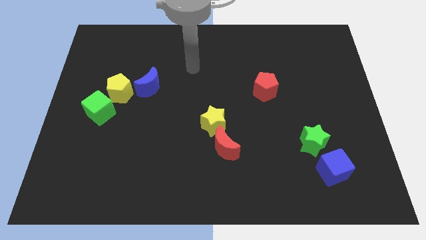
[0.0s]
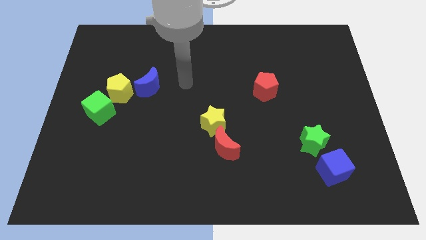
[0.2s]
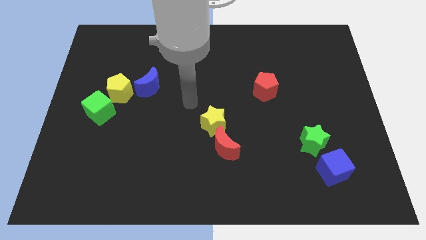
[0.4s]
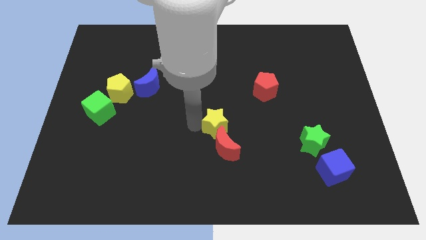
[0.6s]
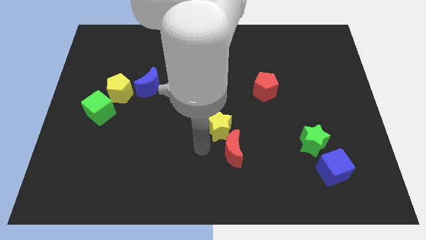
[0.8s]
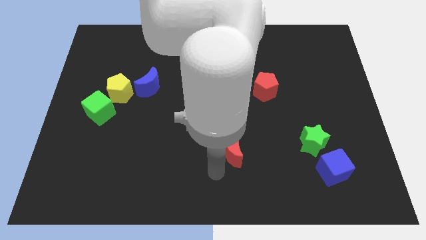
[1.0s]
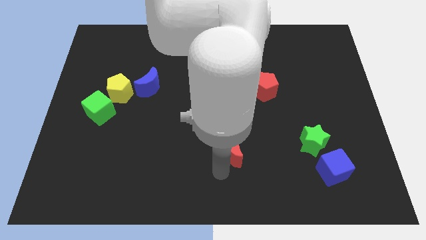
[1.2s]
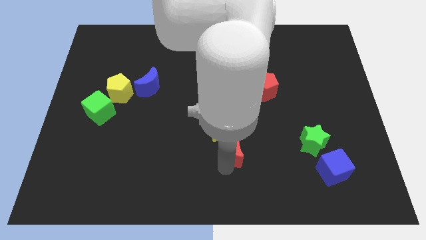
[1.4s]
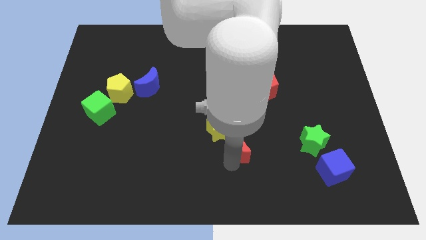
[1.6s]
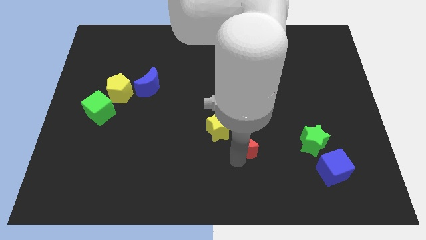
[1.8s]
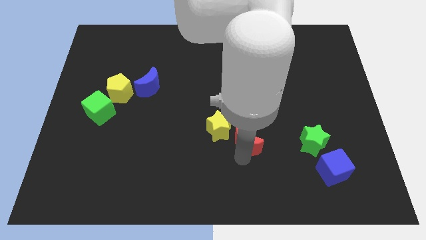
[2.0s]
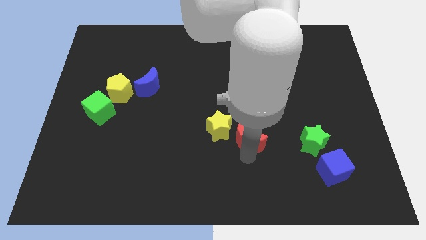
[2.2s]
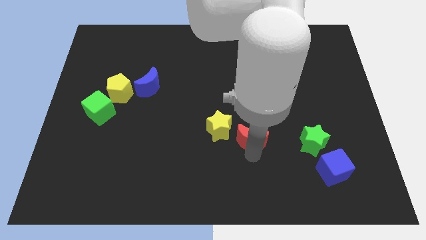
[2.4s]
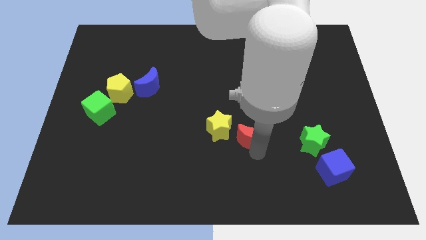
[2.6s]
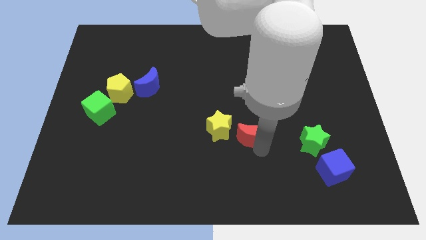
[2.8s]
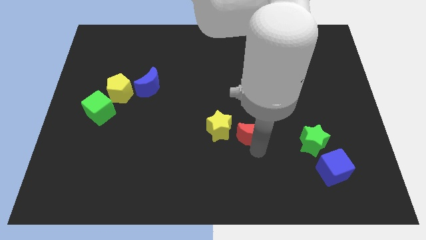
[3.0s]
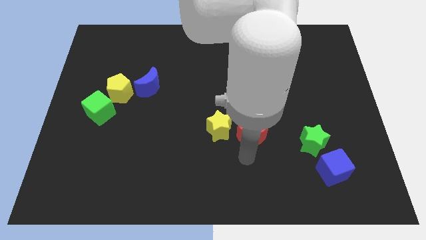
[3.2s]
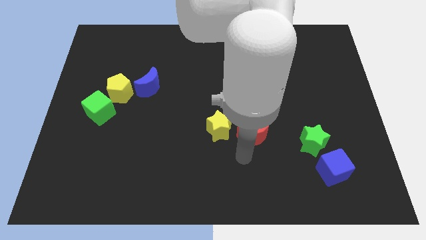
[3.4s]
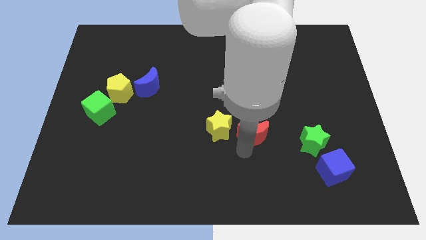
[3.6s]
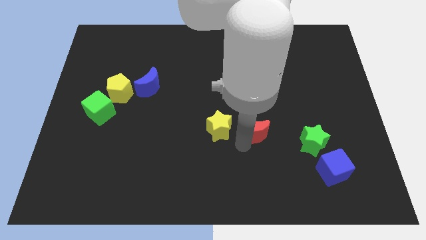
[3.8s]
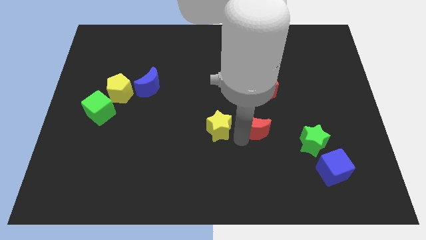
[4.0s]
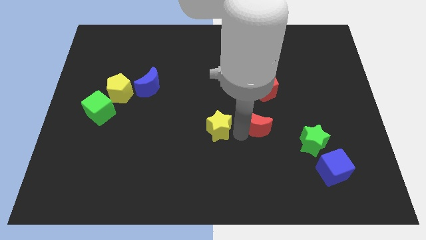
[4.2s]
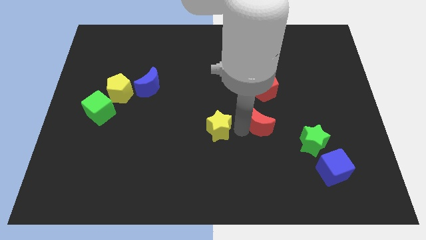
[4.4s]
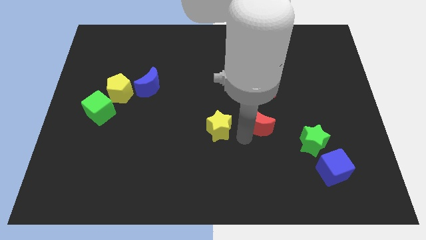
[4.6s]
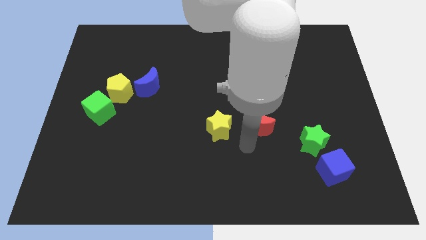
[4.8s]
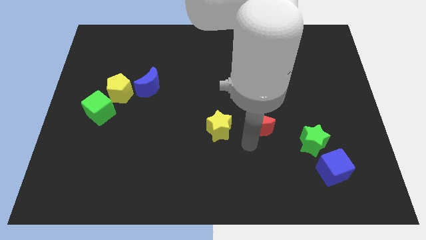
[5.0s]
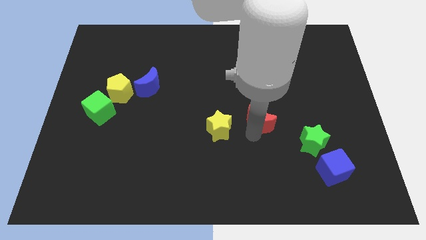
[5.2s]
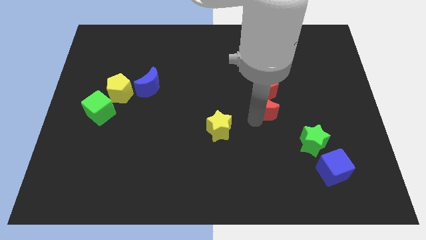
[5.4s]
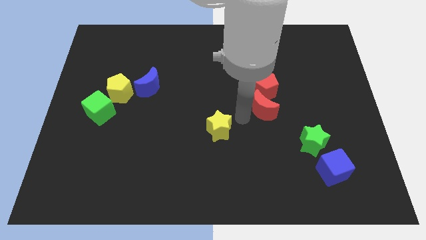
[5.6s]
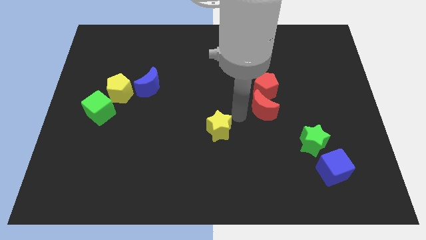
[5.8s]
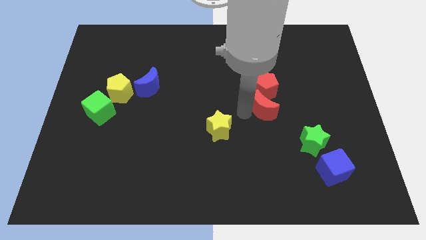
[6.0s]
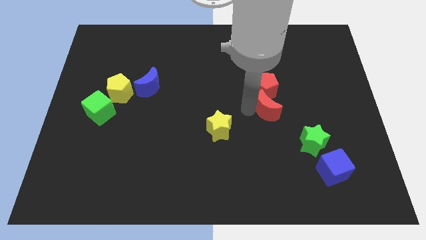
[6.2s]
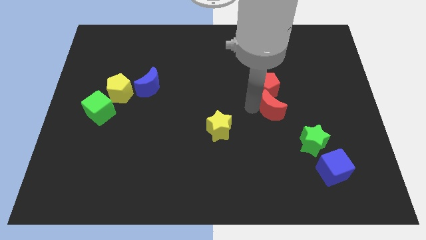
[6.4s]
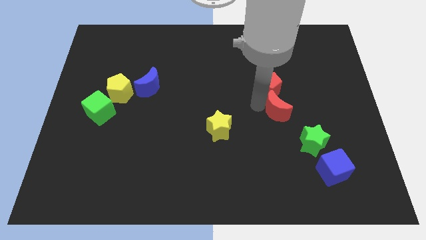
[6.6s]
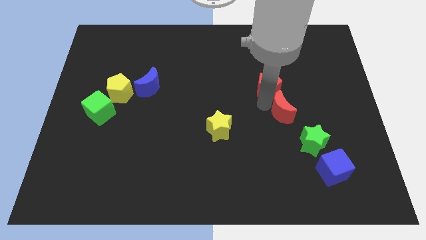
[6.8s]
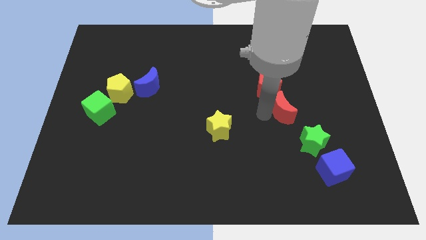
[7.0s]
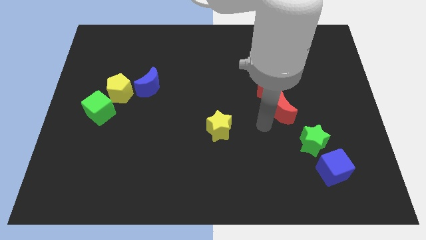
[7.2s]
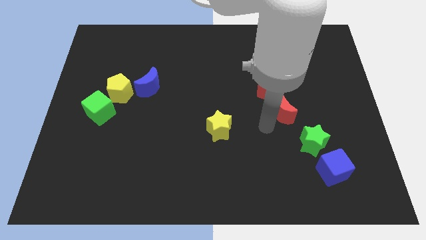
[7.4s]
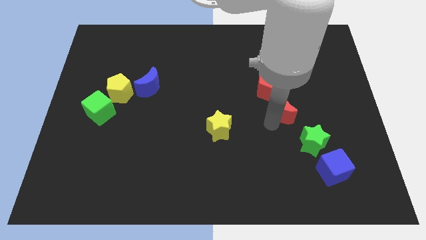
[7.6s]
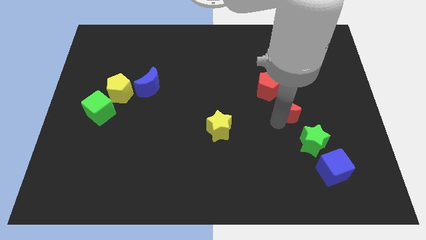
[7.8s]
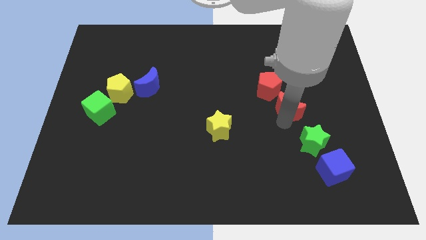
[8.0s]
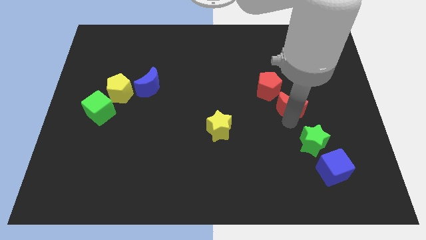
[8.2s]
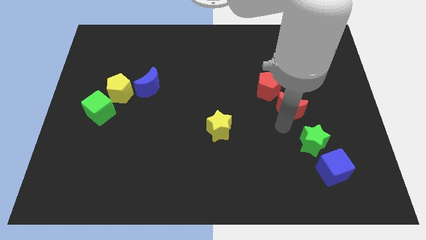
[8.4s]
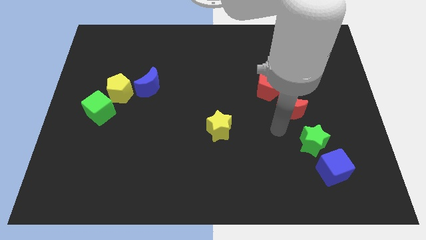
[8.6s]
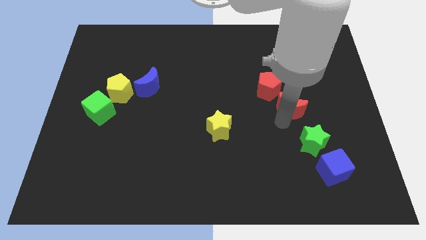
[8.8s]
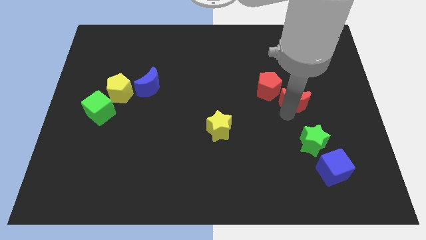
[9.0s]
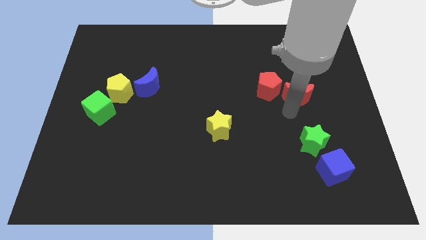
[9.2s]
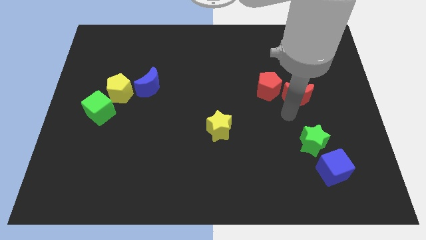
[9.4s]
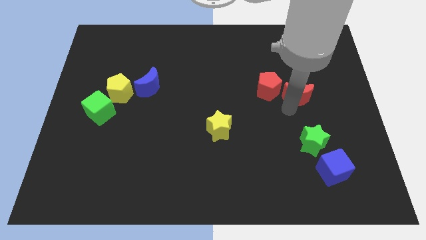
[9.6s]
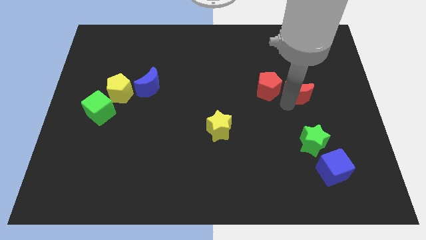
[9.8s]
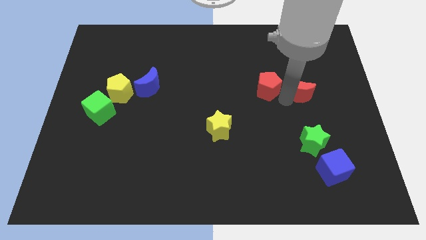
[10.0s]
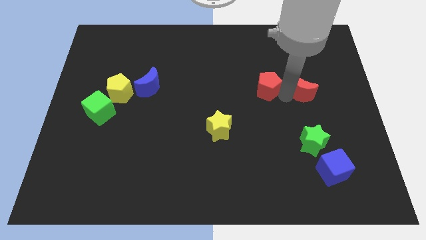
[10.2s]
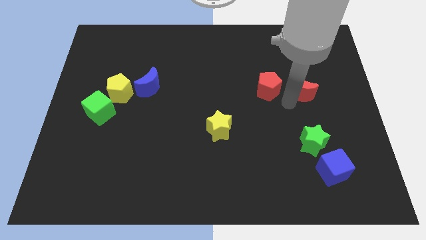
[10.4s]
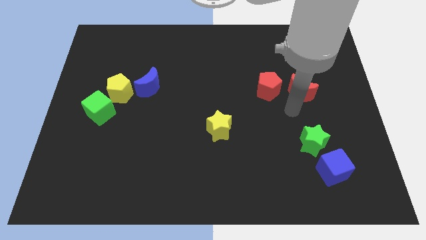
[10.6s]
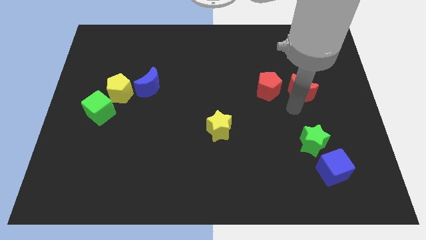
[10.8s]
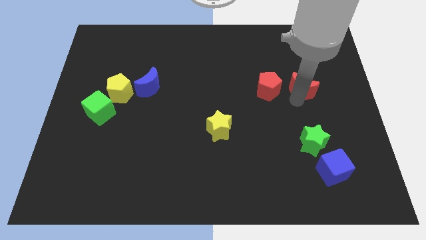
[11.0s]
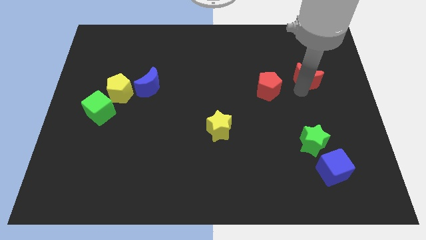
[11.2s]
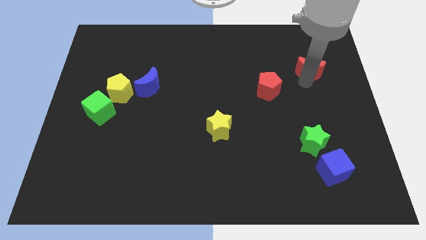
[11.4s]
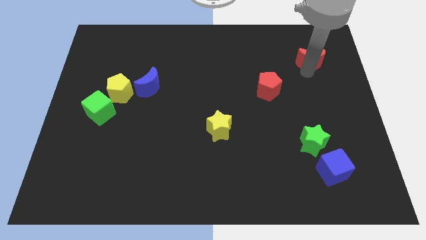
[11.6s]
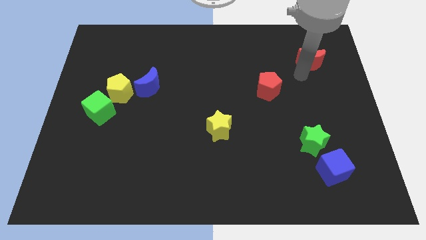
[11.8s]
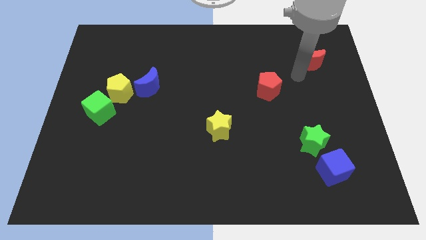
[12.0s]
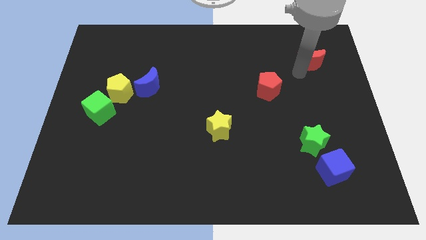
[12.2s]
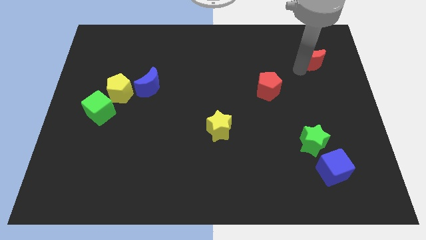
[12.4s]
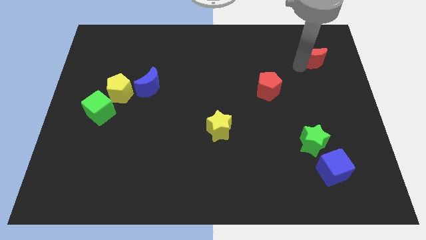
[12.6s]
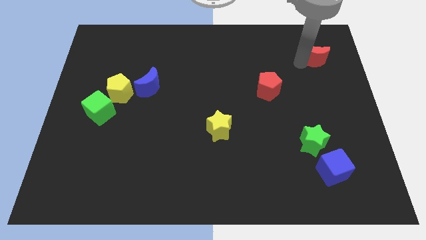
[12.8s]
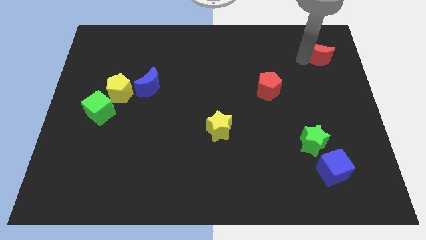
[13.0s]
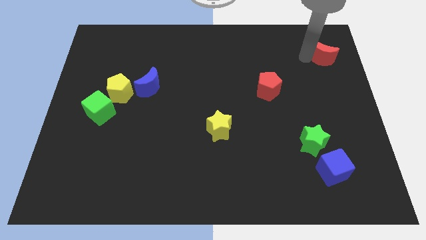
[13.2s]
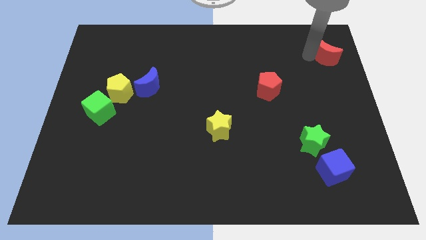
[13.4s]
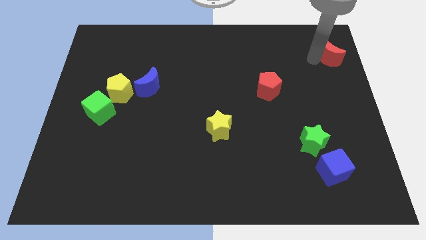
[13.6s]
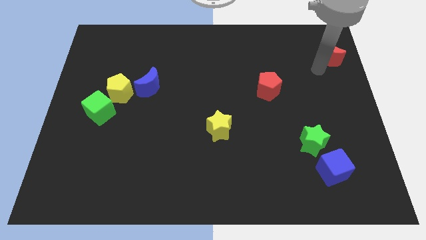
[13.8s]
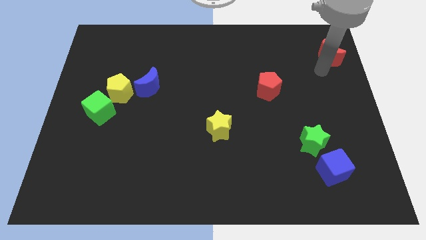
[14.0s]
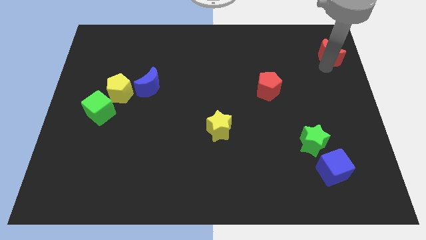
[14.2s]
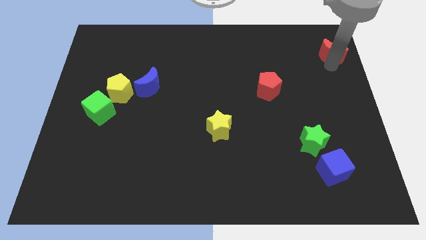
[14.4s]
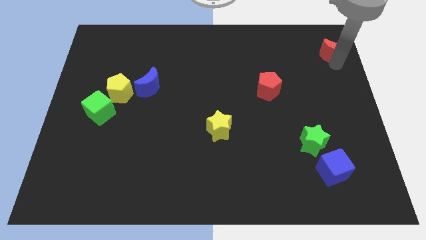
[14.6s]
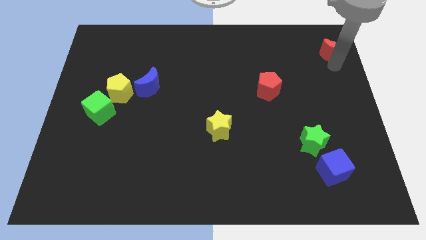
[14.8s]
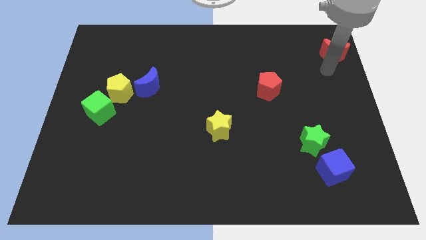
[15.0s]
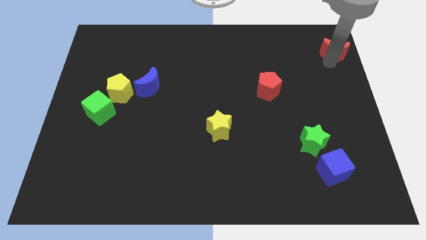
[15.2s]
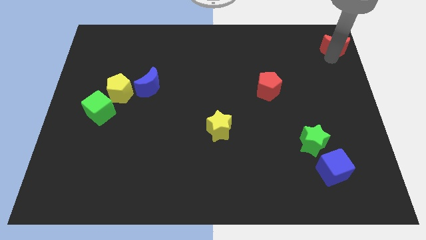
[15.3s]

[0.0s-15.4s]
put the red moon to the top right
